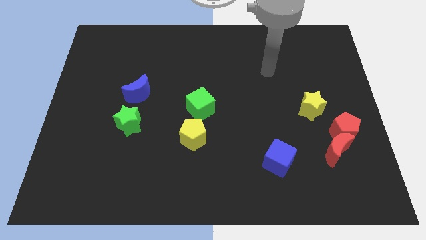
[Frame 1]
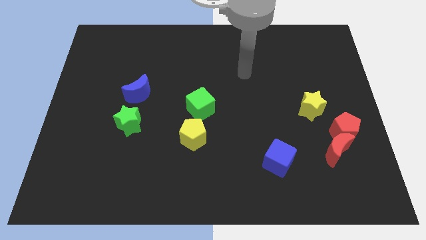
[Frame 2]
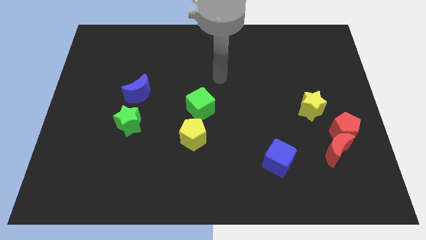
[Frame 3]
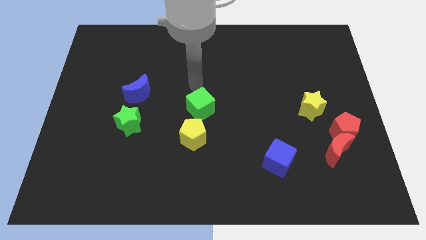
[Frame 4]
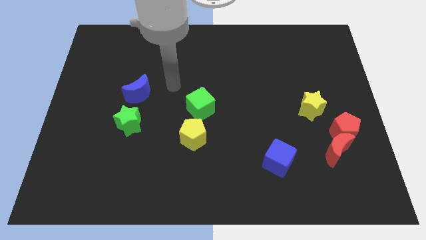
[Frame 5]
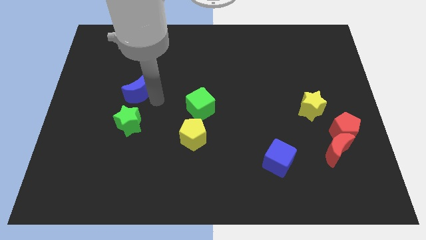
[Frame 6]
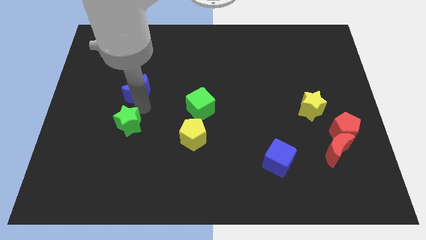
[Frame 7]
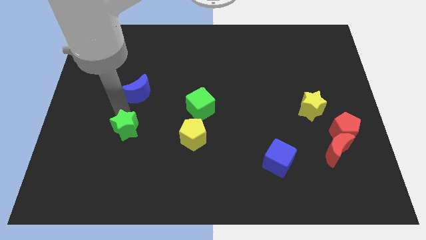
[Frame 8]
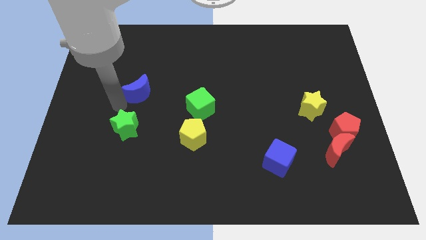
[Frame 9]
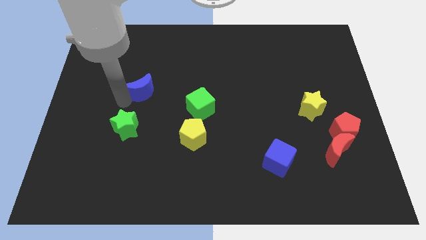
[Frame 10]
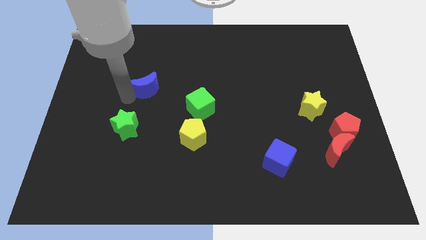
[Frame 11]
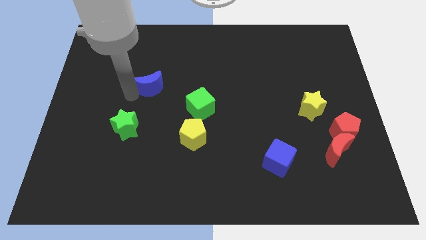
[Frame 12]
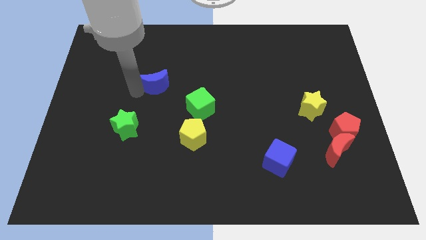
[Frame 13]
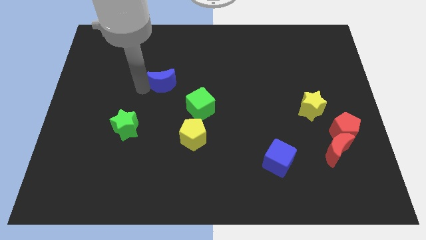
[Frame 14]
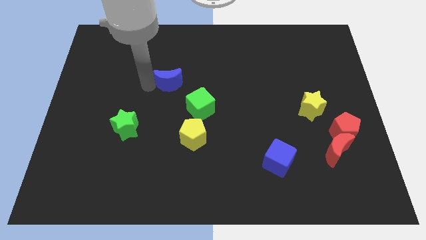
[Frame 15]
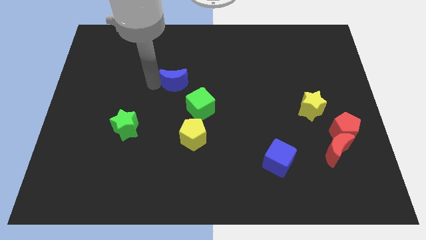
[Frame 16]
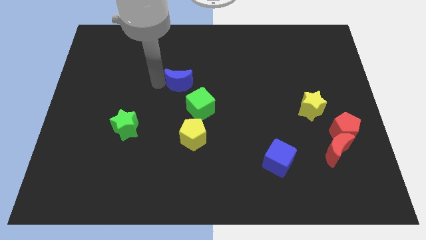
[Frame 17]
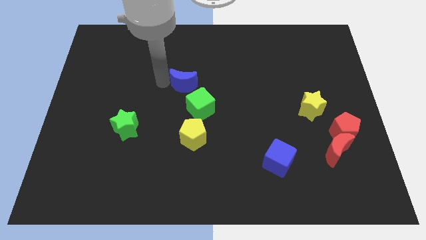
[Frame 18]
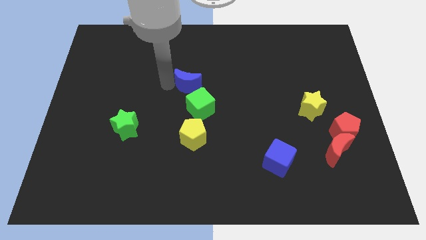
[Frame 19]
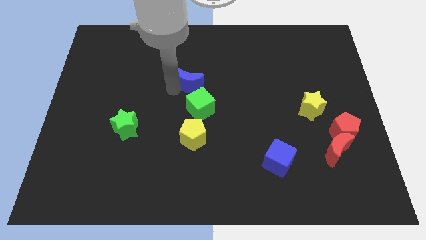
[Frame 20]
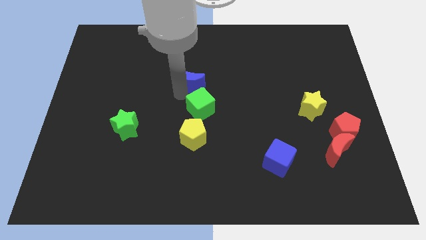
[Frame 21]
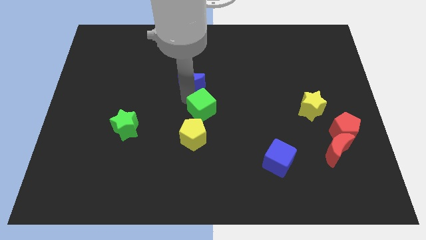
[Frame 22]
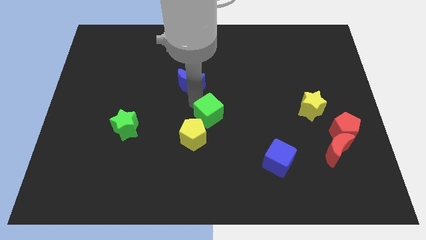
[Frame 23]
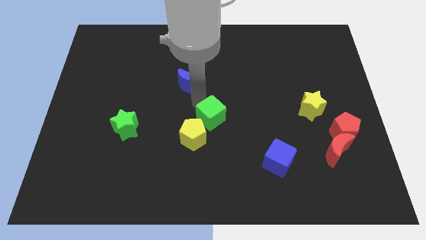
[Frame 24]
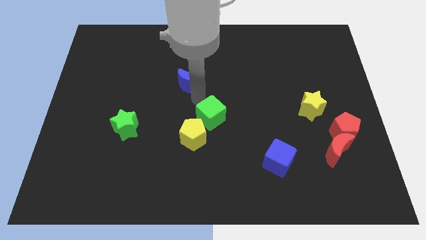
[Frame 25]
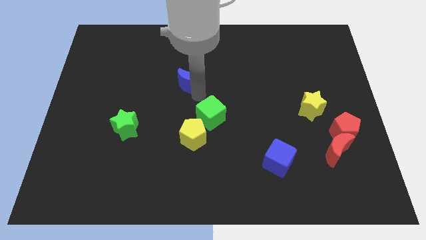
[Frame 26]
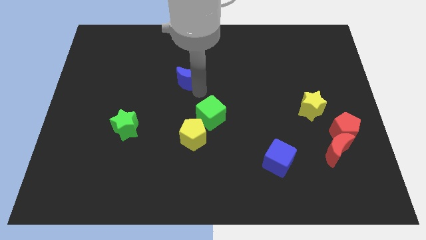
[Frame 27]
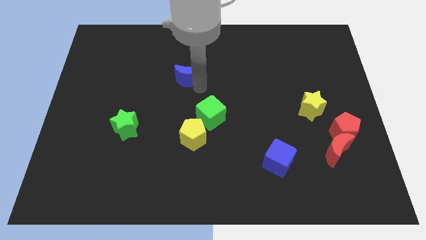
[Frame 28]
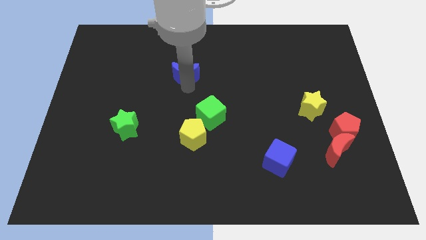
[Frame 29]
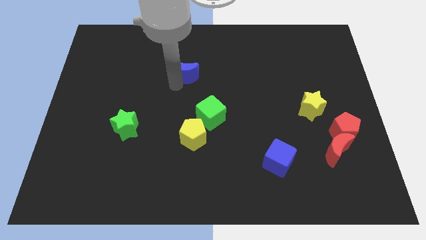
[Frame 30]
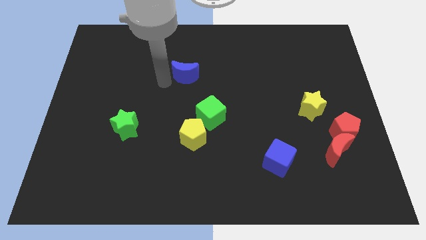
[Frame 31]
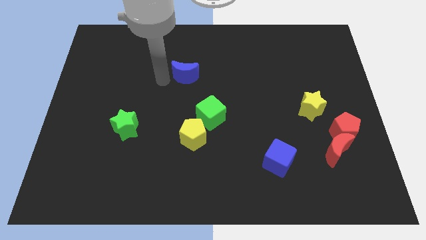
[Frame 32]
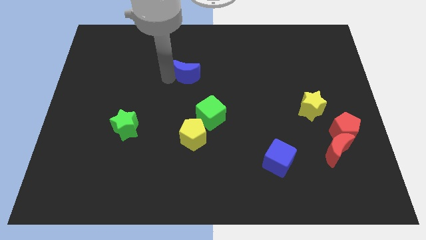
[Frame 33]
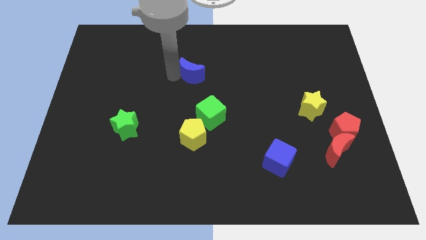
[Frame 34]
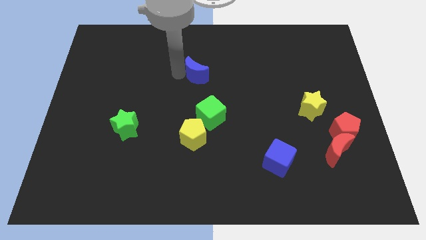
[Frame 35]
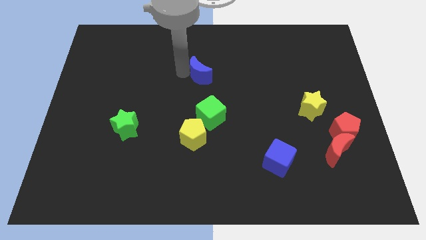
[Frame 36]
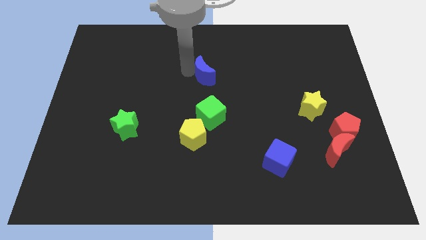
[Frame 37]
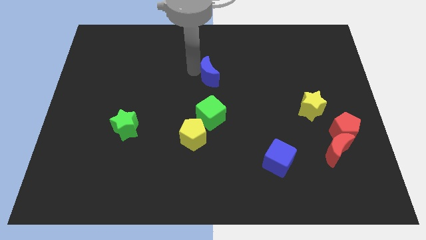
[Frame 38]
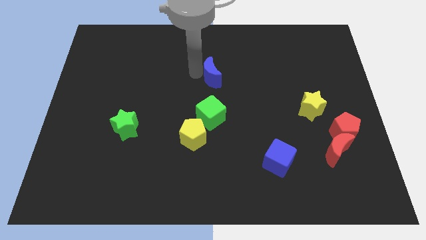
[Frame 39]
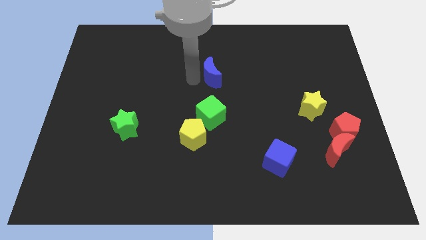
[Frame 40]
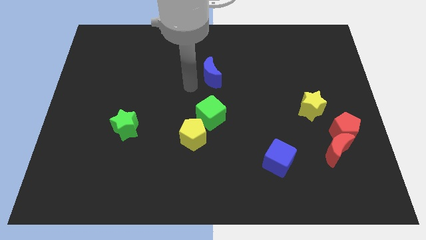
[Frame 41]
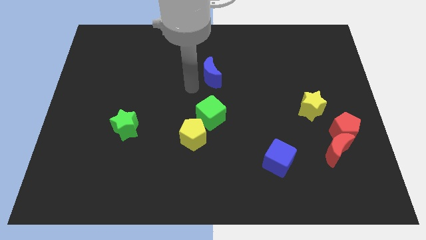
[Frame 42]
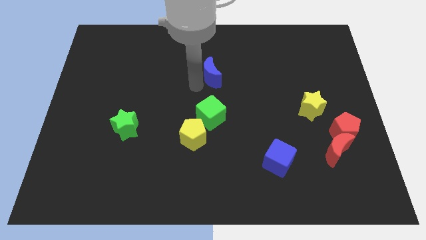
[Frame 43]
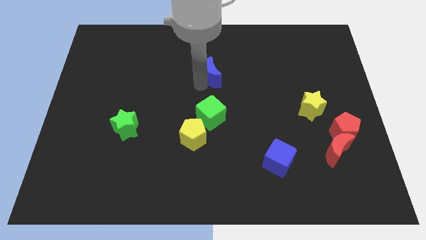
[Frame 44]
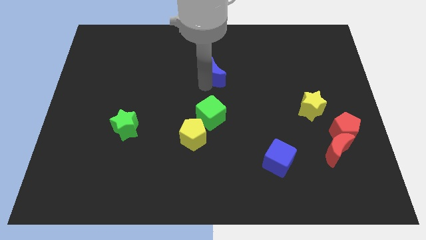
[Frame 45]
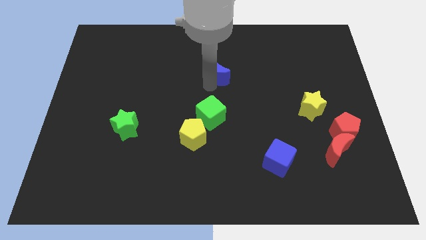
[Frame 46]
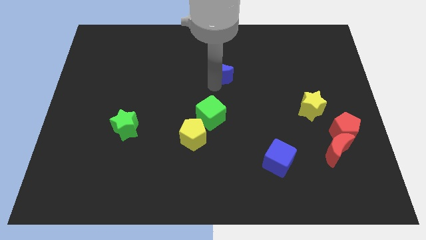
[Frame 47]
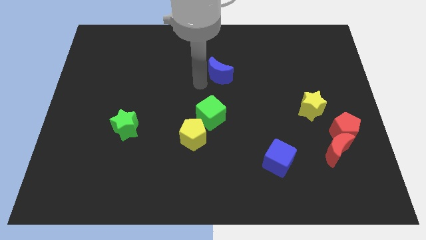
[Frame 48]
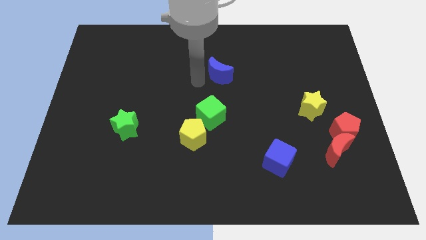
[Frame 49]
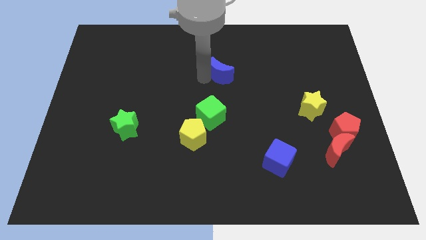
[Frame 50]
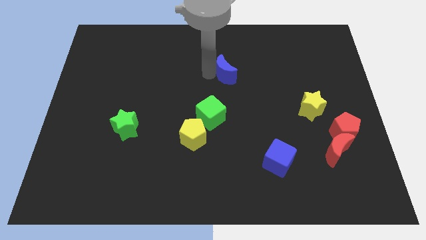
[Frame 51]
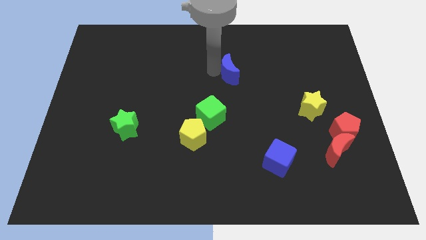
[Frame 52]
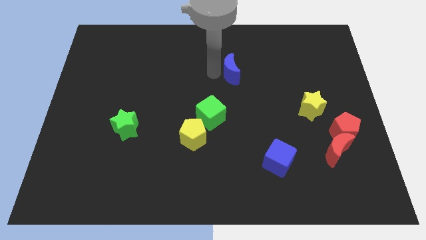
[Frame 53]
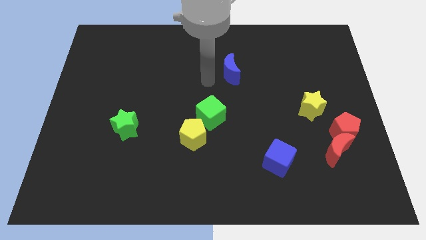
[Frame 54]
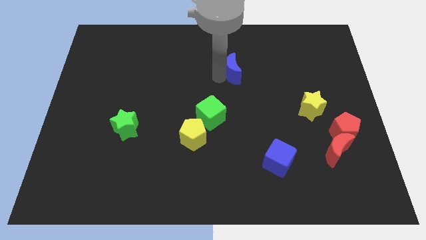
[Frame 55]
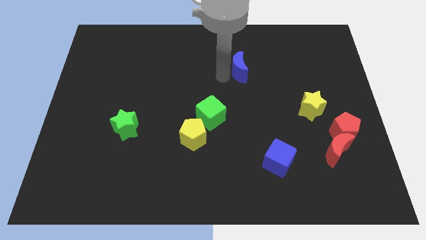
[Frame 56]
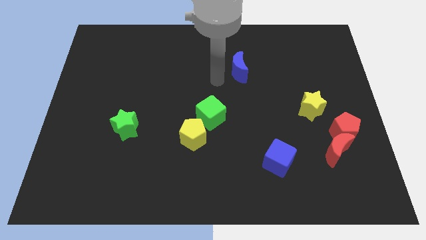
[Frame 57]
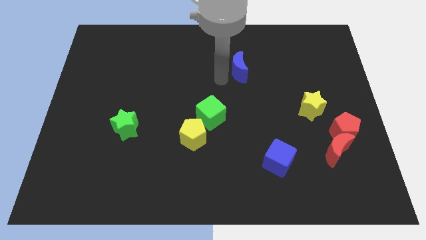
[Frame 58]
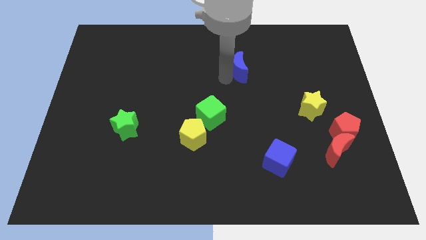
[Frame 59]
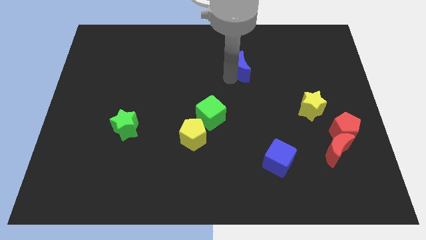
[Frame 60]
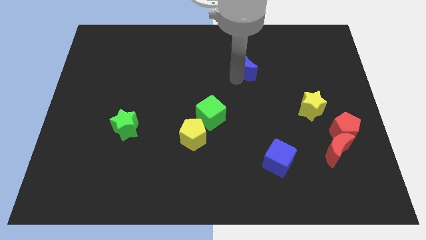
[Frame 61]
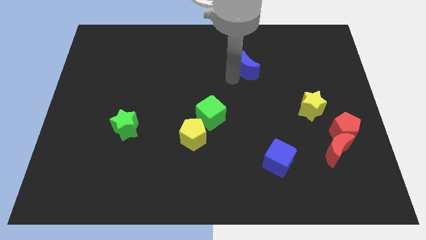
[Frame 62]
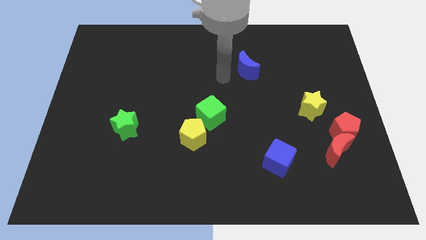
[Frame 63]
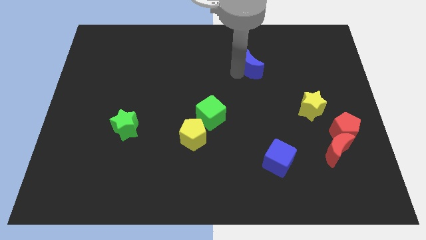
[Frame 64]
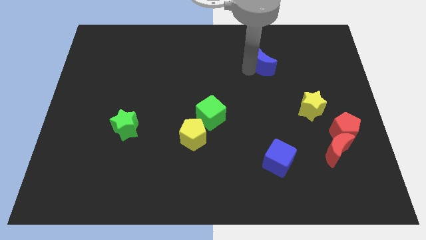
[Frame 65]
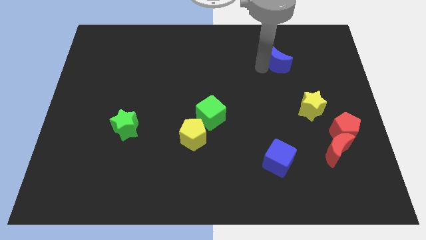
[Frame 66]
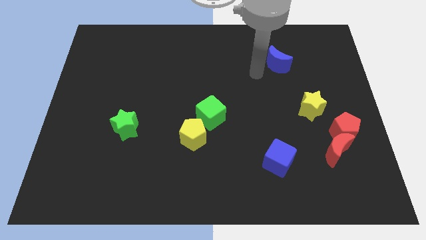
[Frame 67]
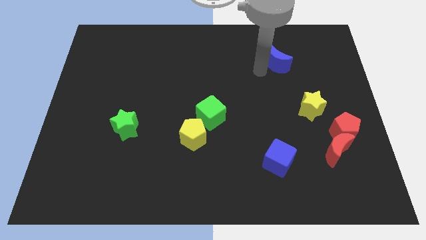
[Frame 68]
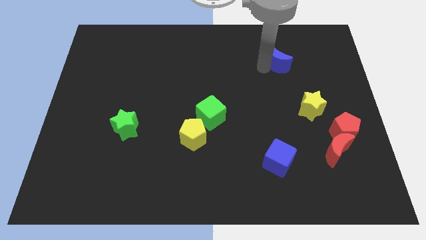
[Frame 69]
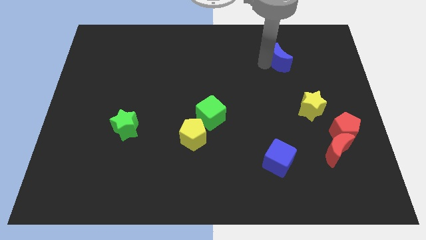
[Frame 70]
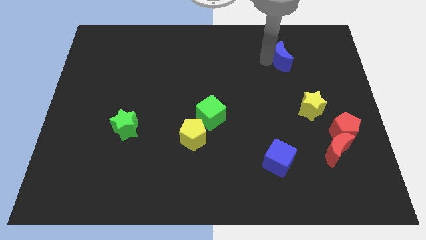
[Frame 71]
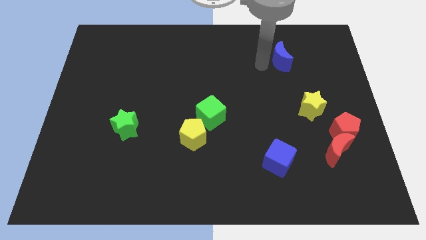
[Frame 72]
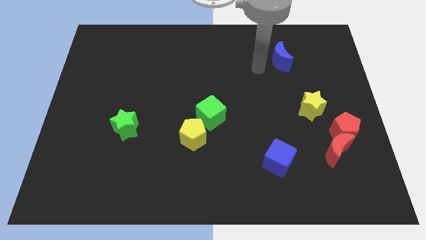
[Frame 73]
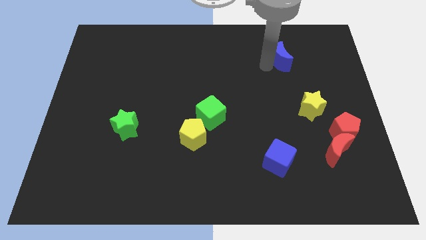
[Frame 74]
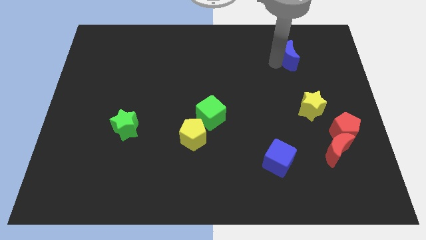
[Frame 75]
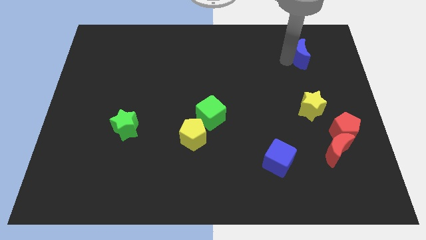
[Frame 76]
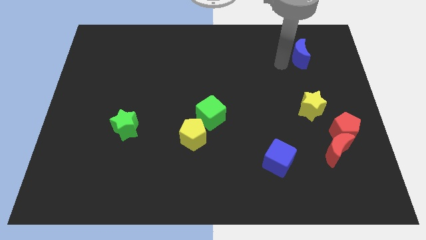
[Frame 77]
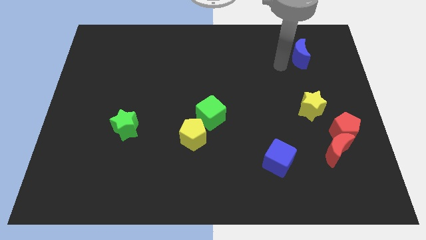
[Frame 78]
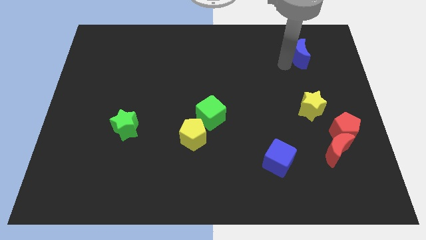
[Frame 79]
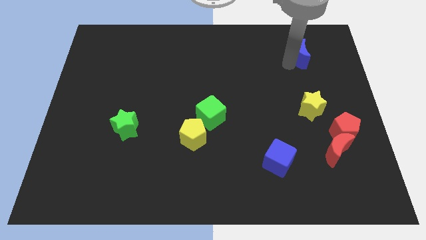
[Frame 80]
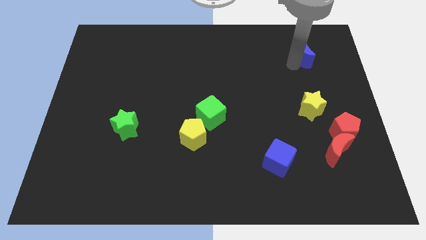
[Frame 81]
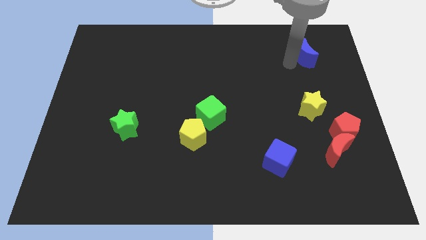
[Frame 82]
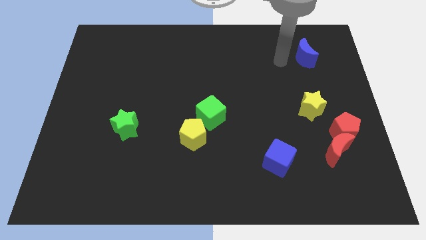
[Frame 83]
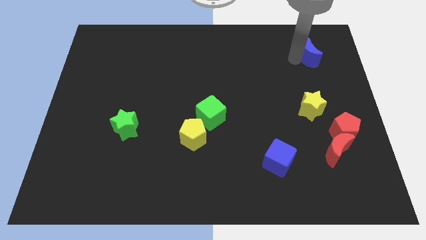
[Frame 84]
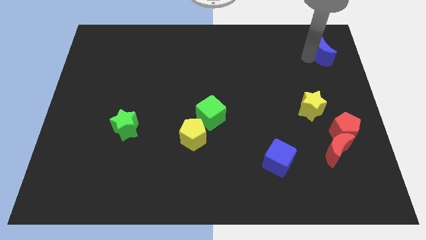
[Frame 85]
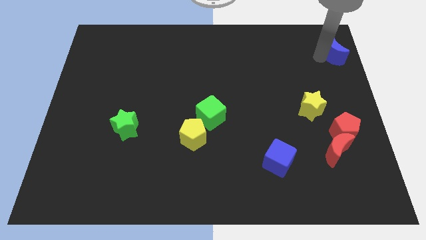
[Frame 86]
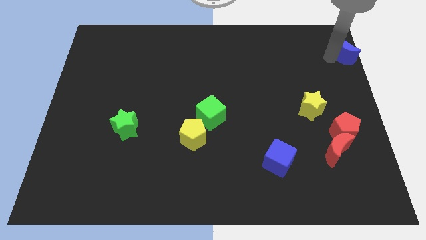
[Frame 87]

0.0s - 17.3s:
push the blue moon to the top right
